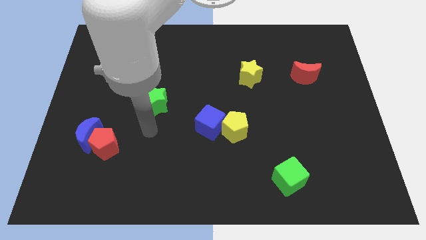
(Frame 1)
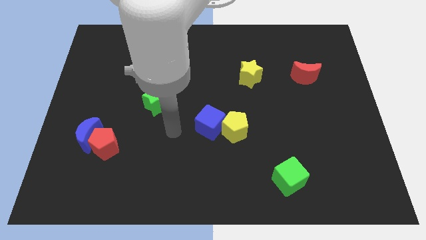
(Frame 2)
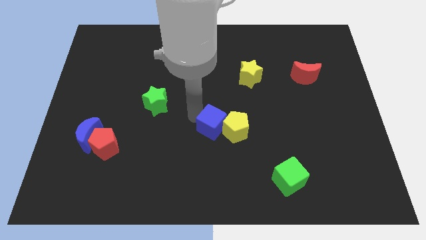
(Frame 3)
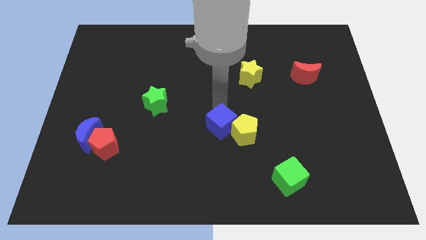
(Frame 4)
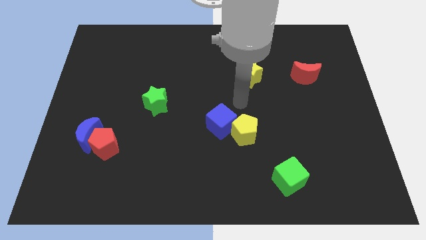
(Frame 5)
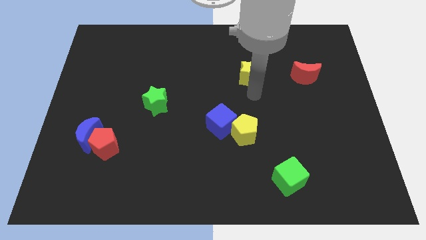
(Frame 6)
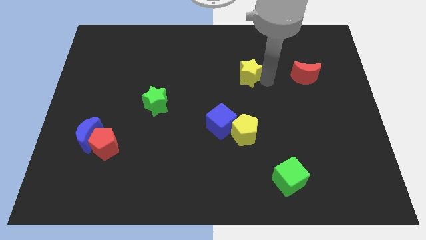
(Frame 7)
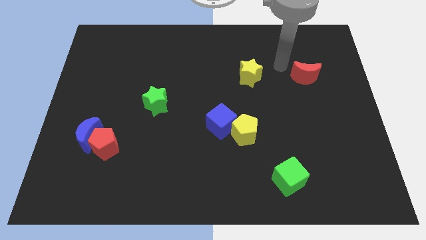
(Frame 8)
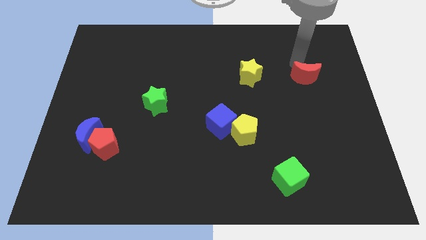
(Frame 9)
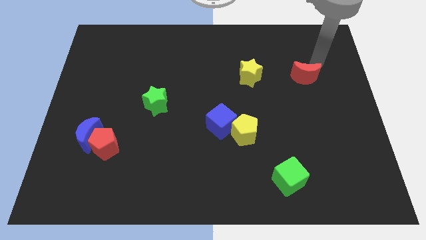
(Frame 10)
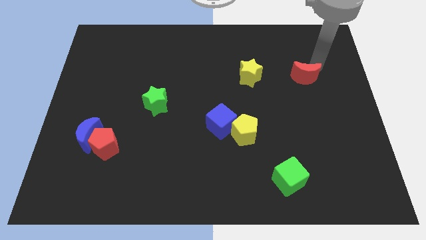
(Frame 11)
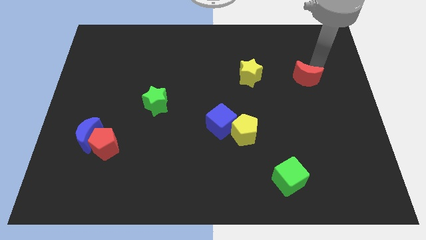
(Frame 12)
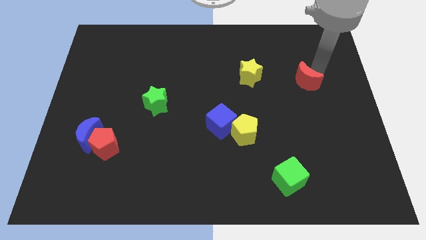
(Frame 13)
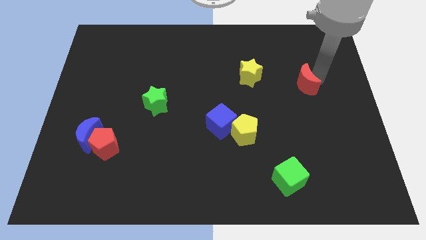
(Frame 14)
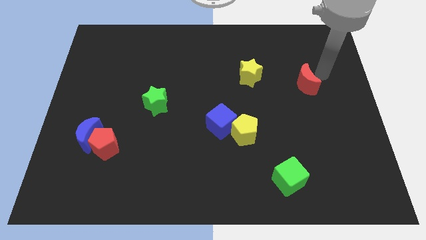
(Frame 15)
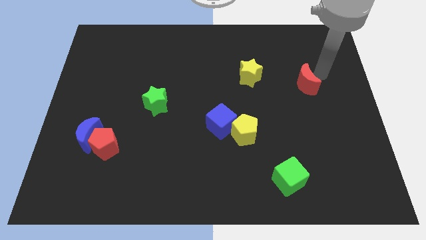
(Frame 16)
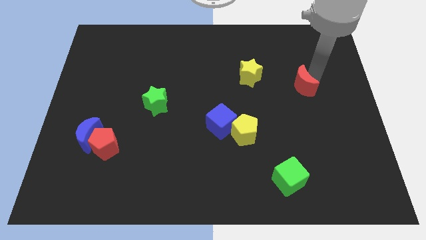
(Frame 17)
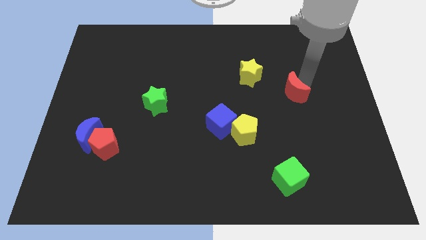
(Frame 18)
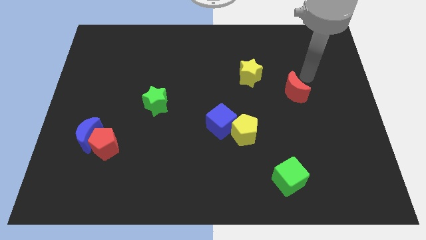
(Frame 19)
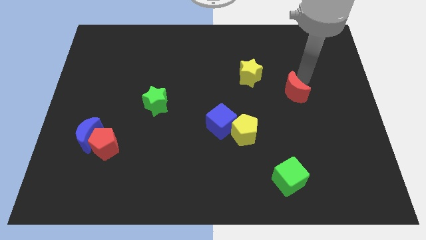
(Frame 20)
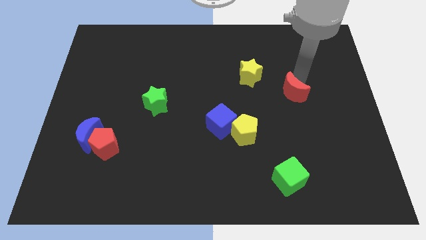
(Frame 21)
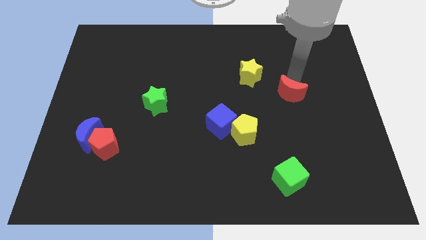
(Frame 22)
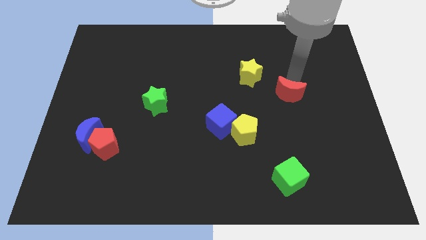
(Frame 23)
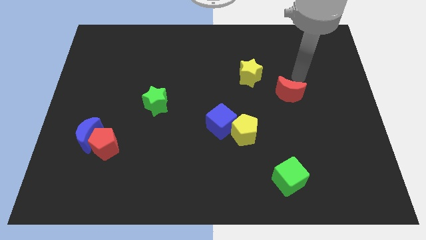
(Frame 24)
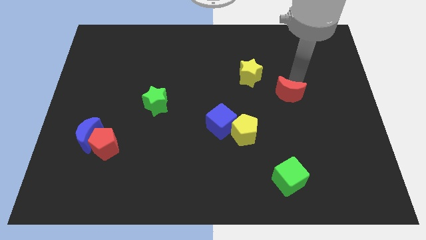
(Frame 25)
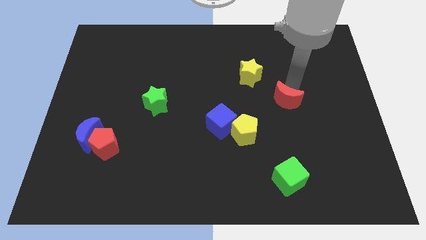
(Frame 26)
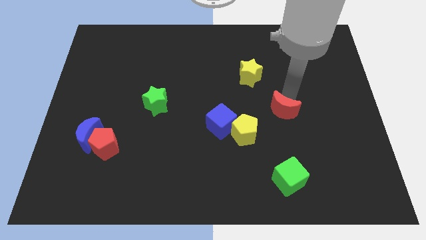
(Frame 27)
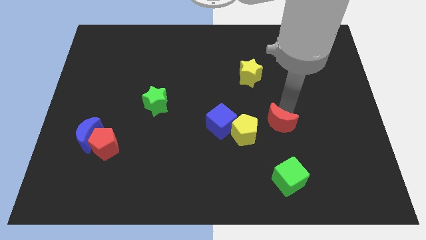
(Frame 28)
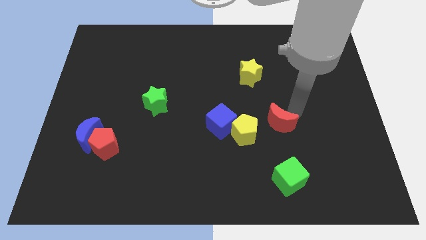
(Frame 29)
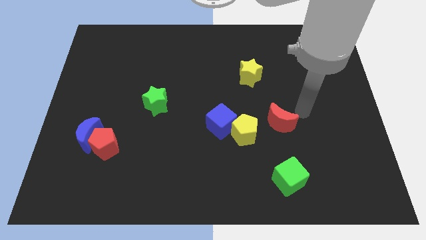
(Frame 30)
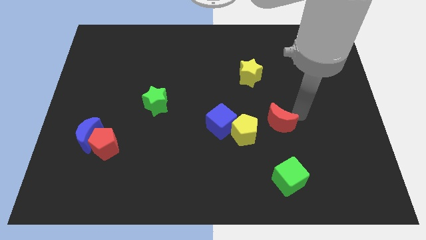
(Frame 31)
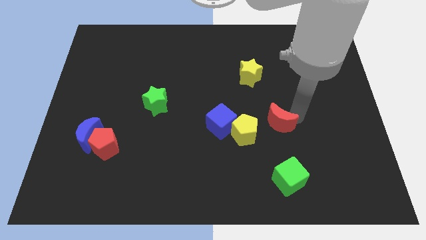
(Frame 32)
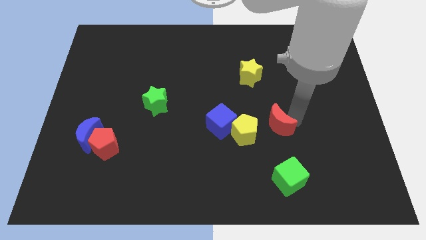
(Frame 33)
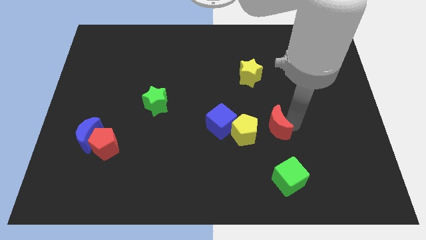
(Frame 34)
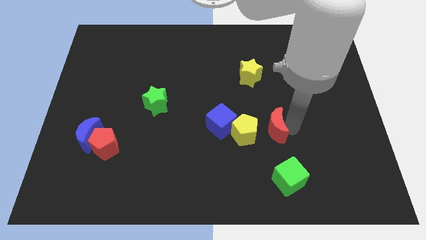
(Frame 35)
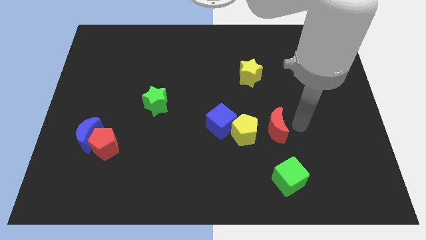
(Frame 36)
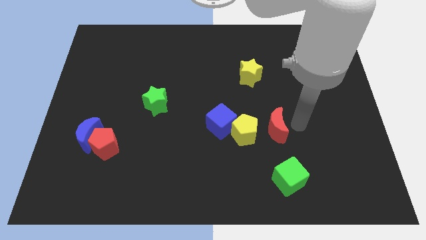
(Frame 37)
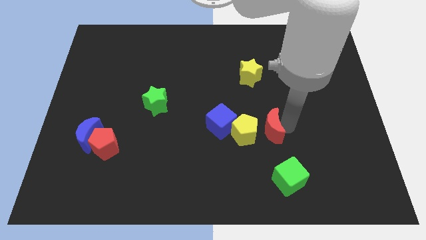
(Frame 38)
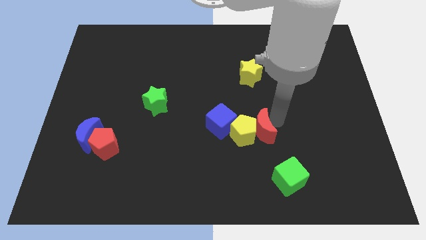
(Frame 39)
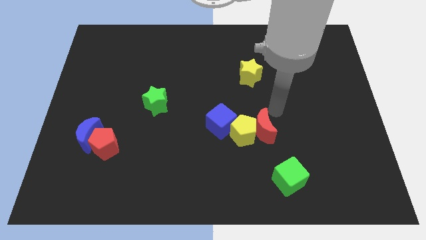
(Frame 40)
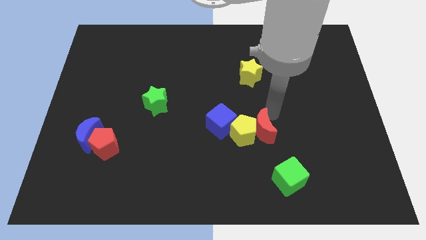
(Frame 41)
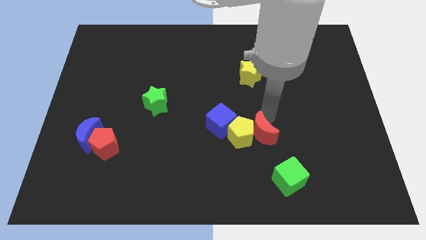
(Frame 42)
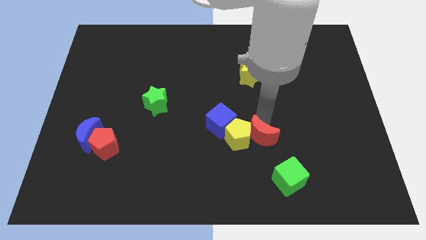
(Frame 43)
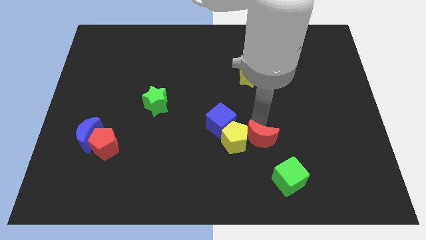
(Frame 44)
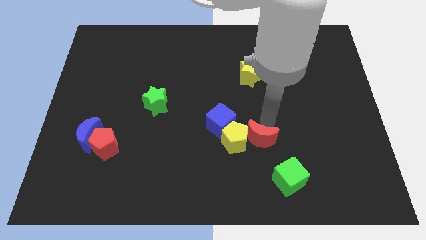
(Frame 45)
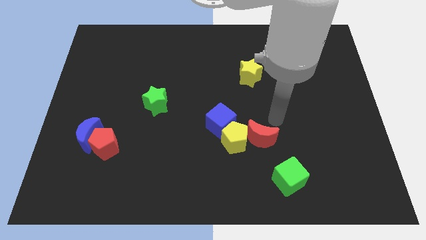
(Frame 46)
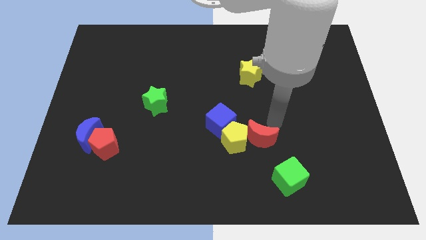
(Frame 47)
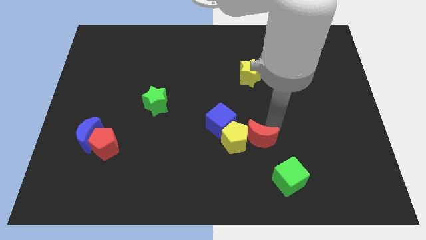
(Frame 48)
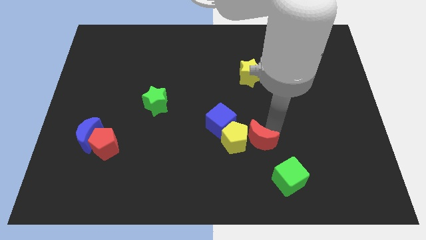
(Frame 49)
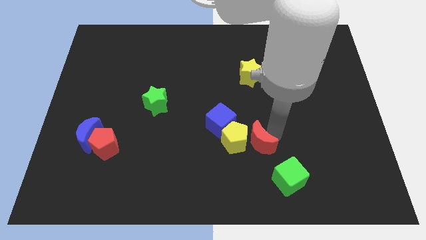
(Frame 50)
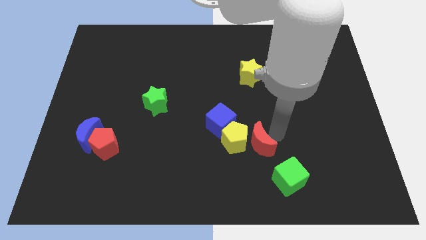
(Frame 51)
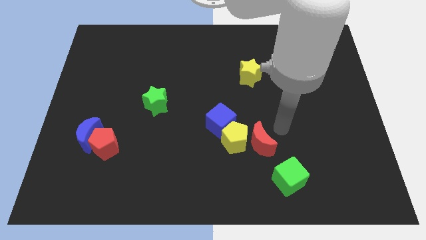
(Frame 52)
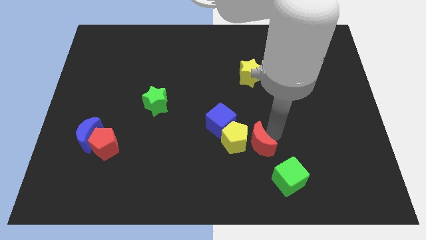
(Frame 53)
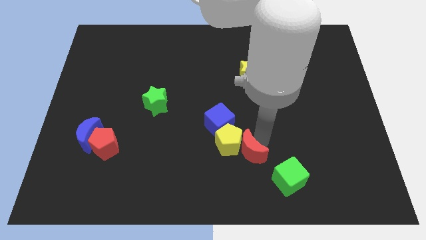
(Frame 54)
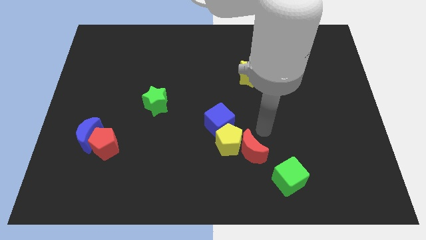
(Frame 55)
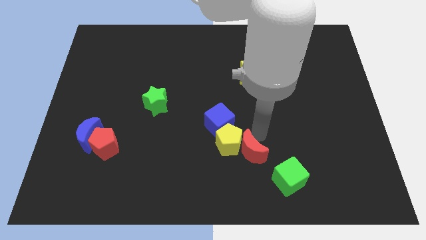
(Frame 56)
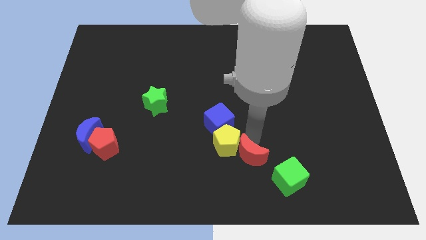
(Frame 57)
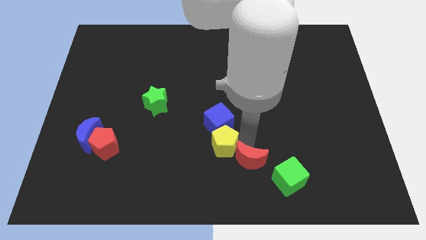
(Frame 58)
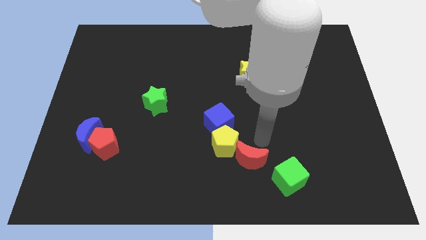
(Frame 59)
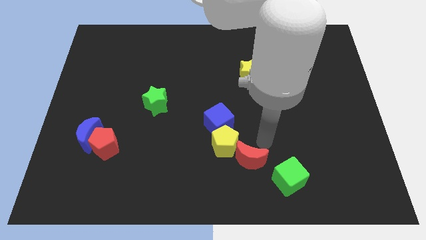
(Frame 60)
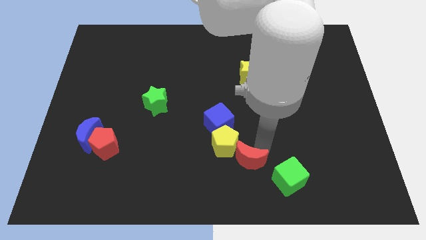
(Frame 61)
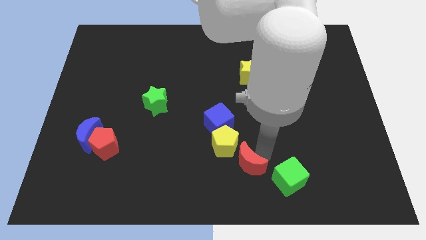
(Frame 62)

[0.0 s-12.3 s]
move the red moon below the yellow pentagon

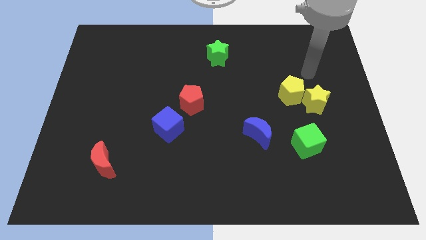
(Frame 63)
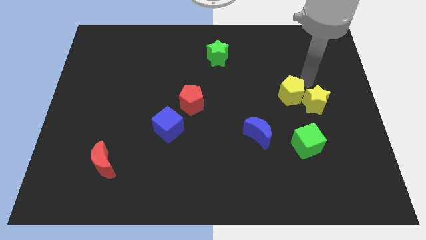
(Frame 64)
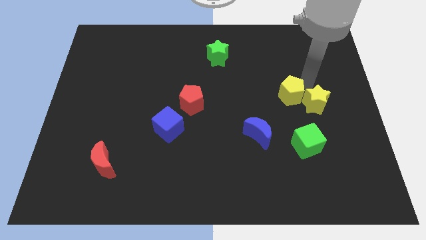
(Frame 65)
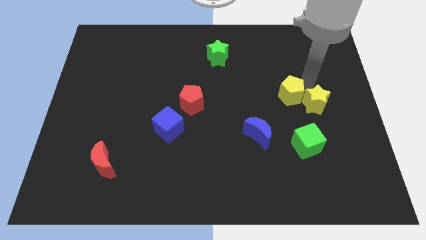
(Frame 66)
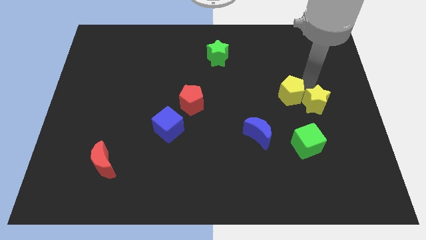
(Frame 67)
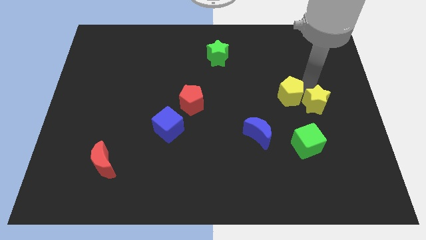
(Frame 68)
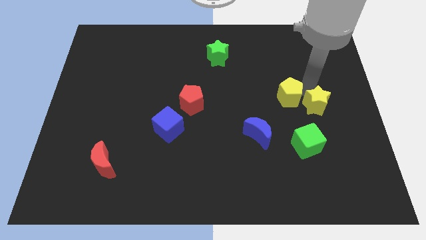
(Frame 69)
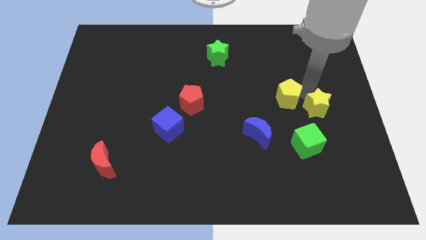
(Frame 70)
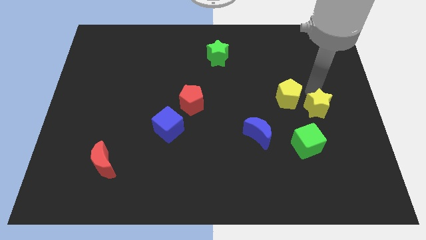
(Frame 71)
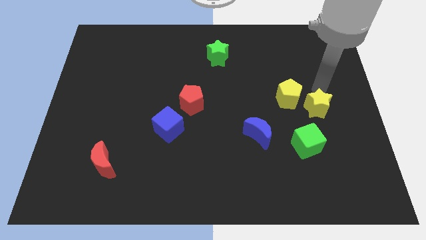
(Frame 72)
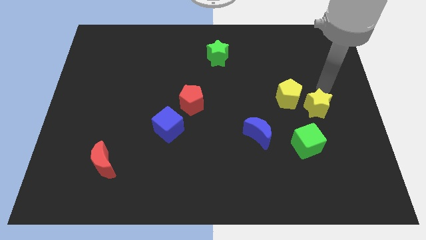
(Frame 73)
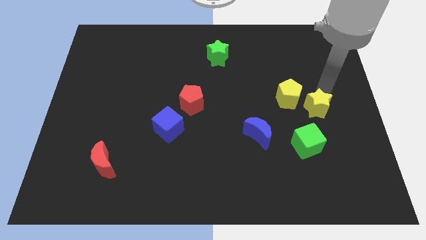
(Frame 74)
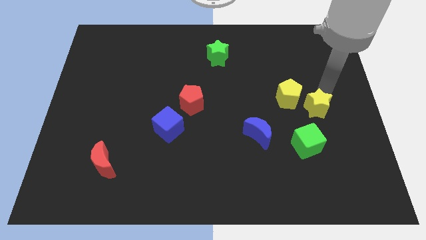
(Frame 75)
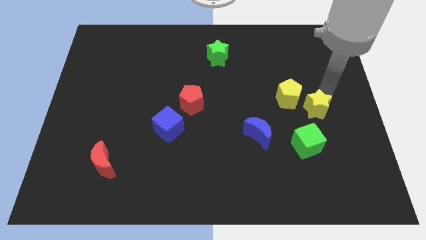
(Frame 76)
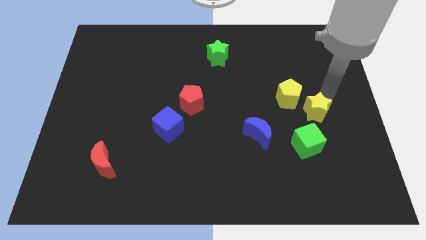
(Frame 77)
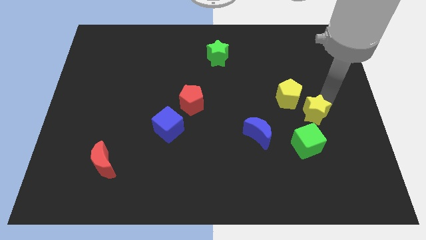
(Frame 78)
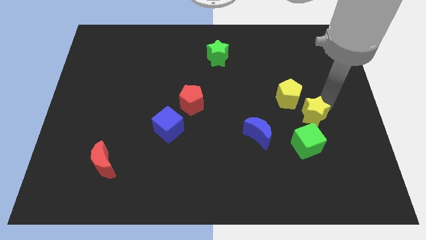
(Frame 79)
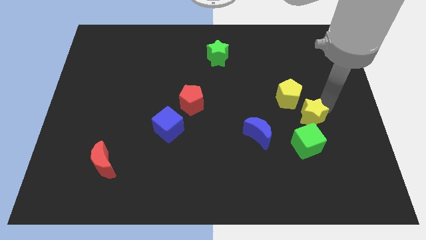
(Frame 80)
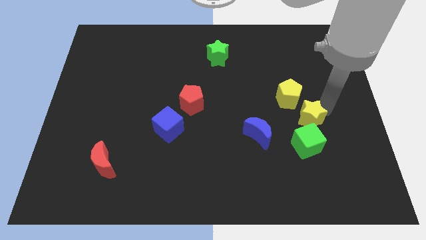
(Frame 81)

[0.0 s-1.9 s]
move the yellow star to the right side of the blue moon
